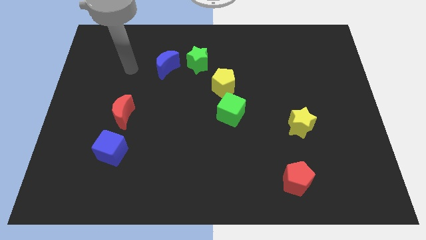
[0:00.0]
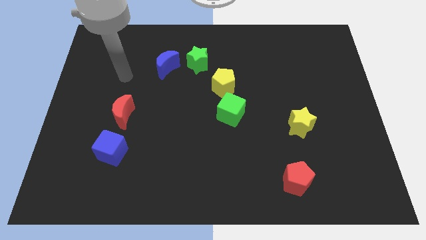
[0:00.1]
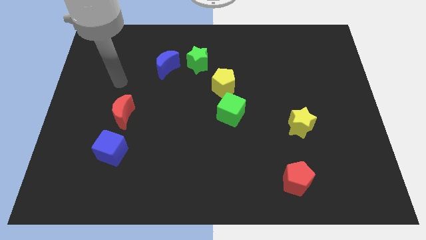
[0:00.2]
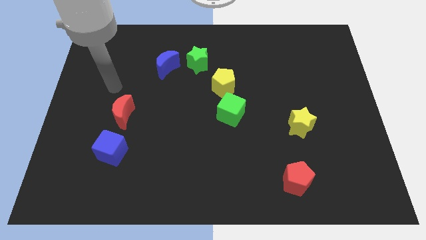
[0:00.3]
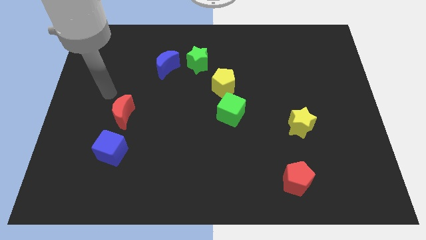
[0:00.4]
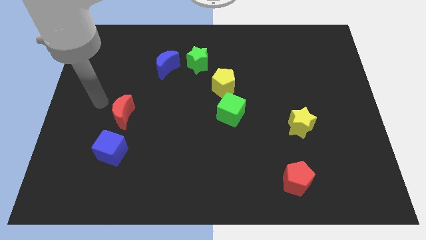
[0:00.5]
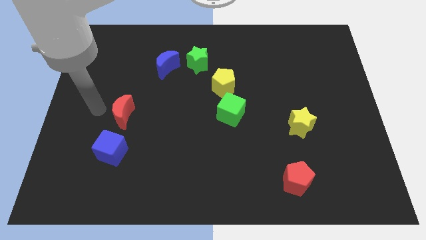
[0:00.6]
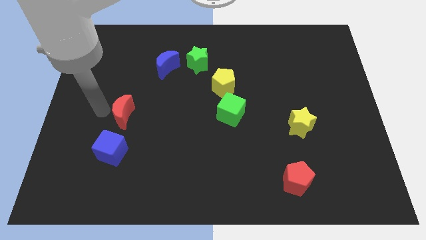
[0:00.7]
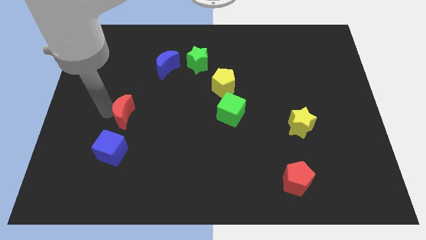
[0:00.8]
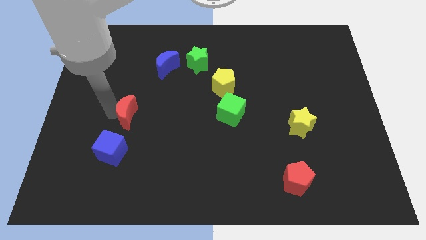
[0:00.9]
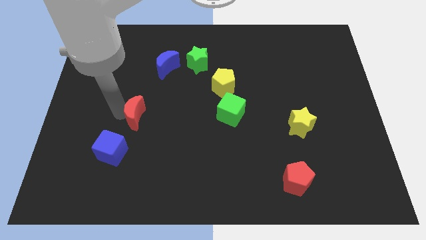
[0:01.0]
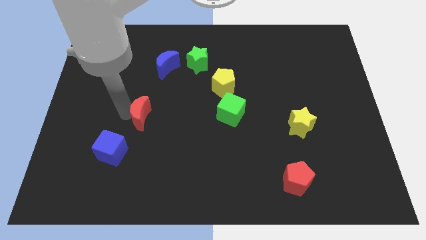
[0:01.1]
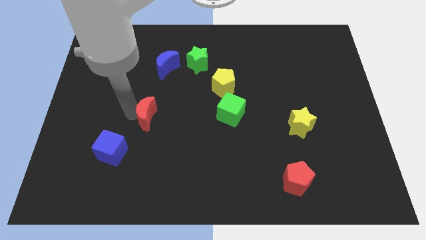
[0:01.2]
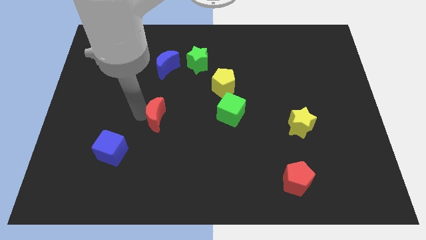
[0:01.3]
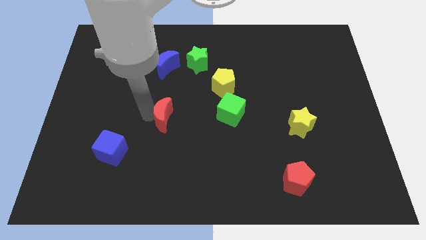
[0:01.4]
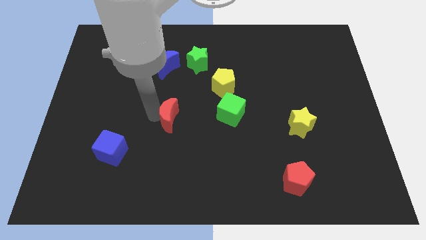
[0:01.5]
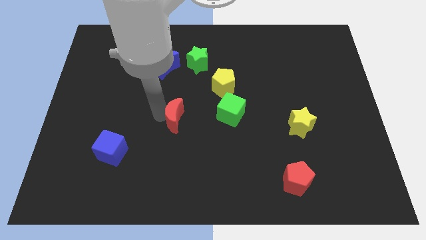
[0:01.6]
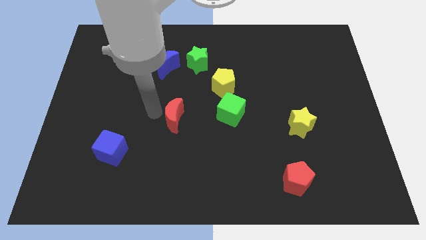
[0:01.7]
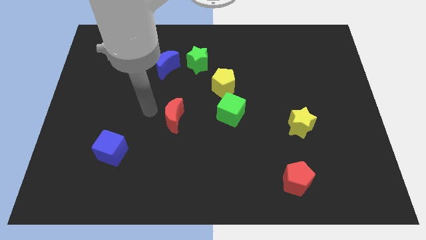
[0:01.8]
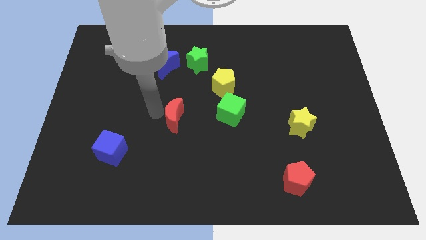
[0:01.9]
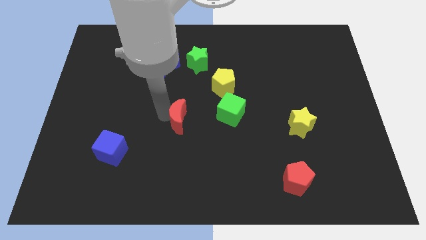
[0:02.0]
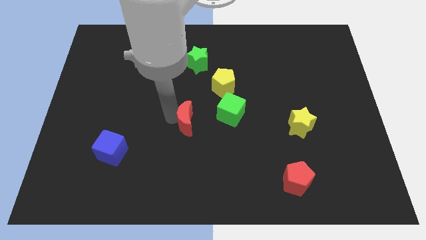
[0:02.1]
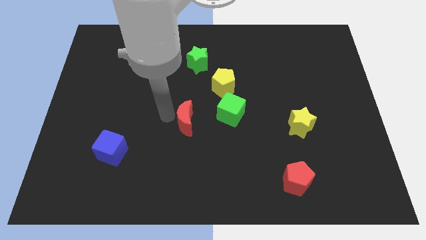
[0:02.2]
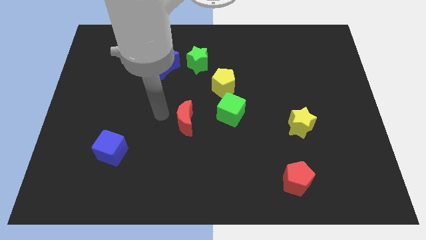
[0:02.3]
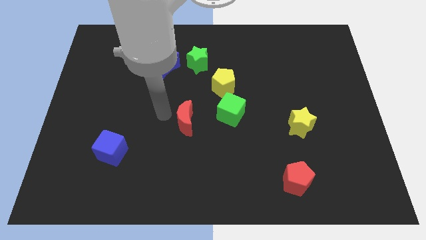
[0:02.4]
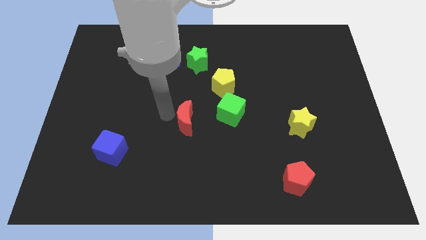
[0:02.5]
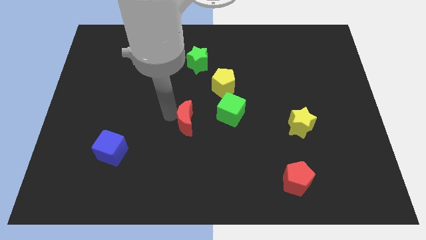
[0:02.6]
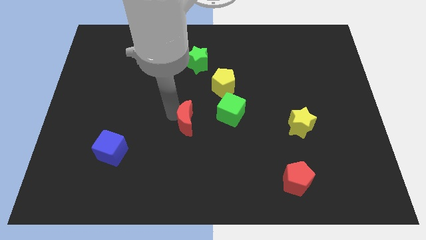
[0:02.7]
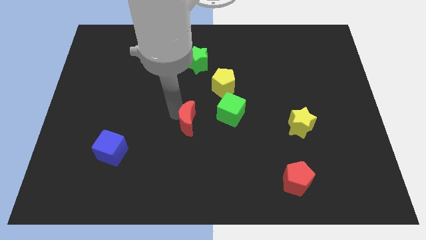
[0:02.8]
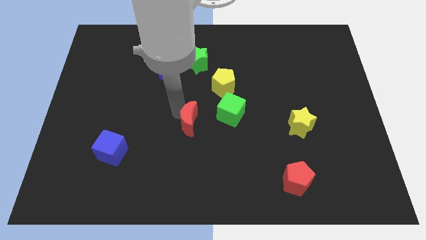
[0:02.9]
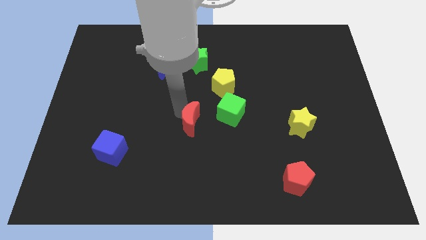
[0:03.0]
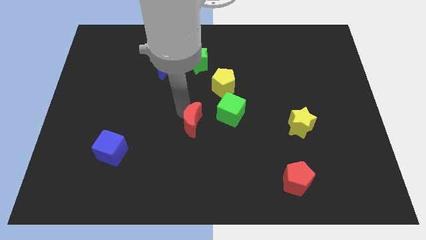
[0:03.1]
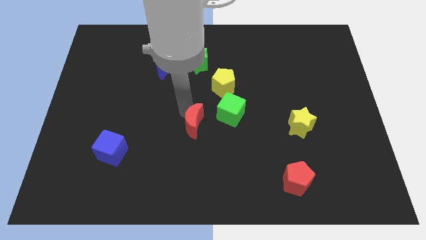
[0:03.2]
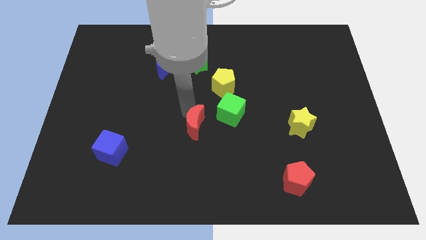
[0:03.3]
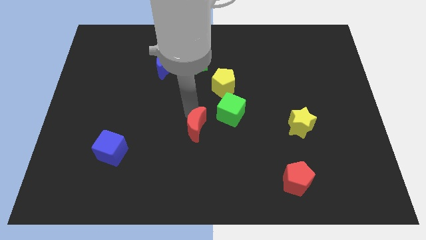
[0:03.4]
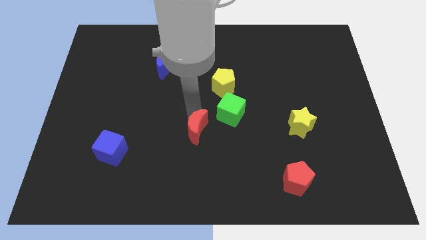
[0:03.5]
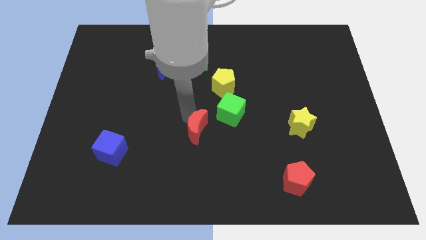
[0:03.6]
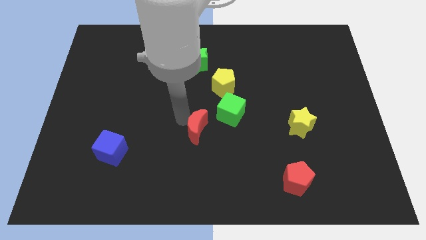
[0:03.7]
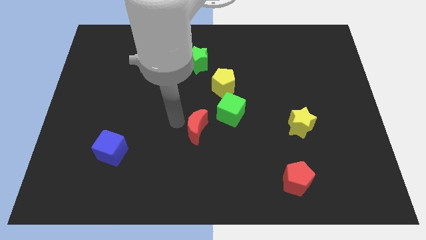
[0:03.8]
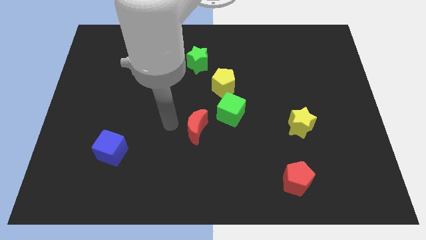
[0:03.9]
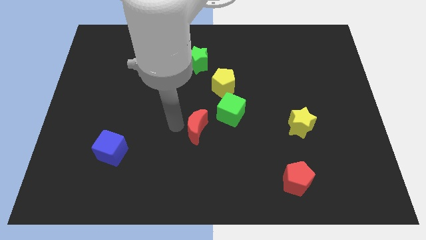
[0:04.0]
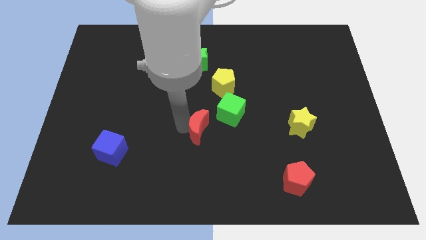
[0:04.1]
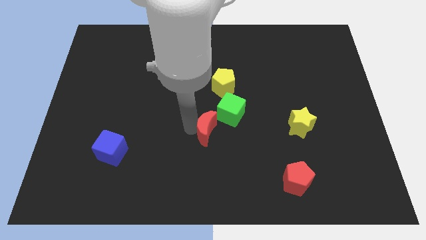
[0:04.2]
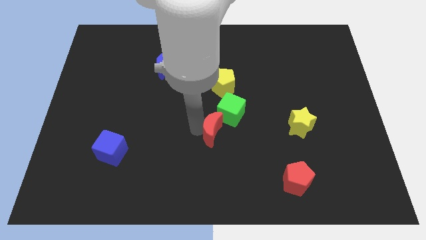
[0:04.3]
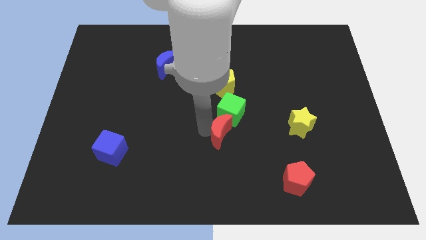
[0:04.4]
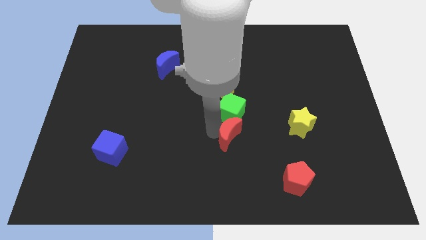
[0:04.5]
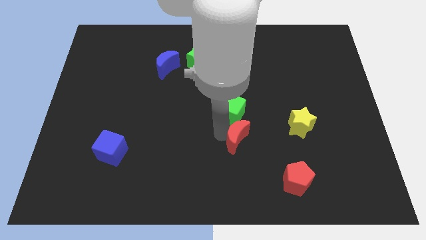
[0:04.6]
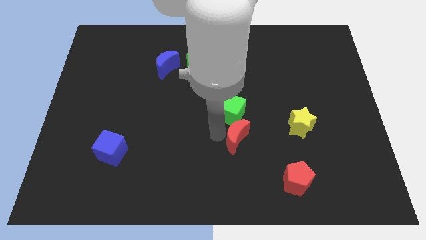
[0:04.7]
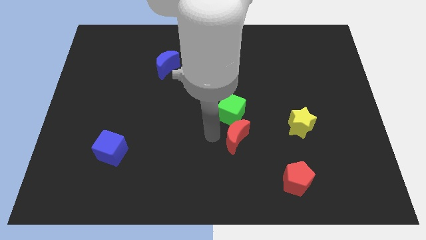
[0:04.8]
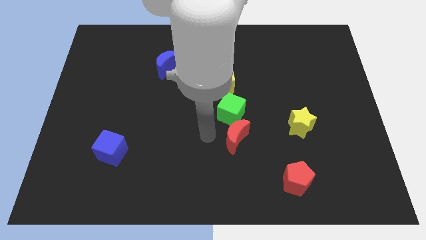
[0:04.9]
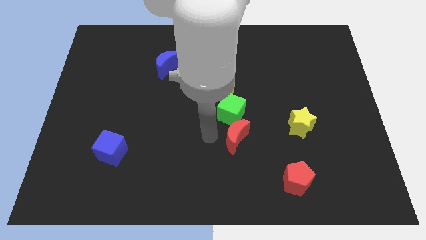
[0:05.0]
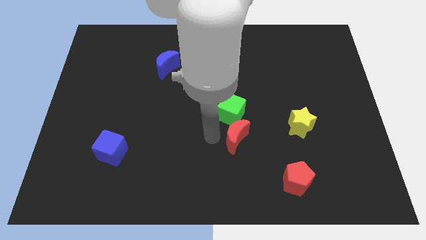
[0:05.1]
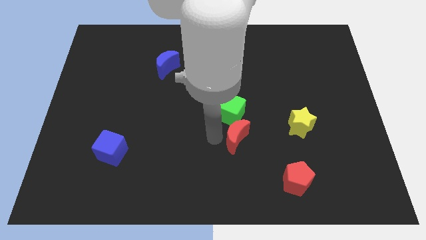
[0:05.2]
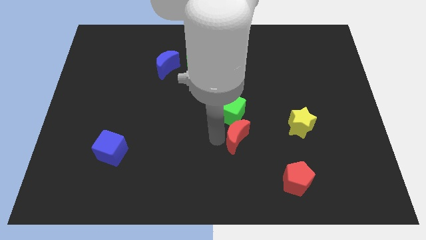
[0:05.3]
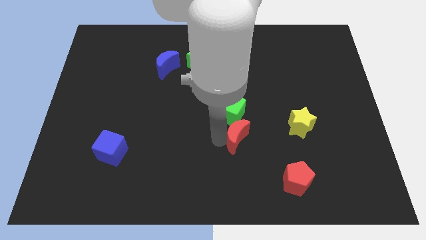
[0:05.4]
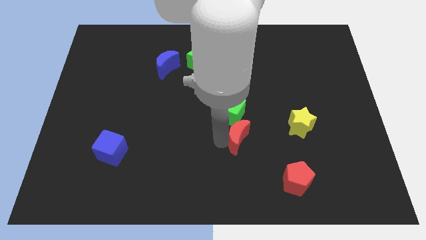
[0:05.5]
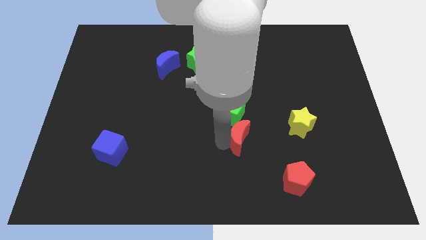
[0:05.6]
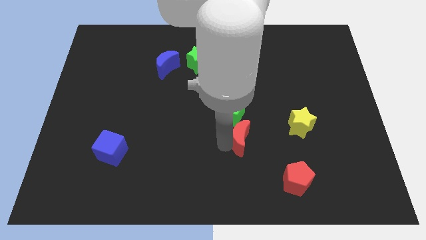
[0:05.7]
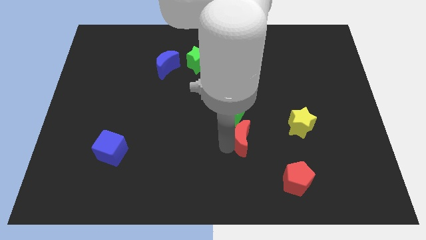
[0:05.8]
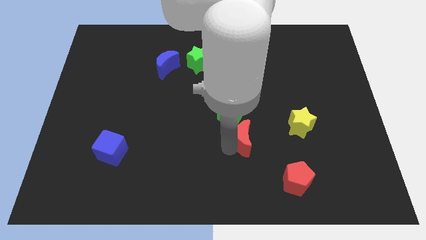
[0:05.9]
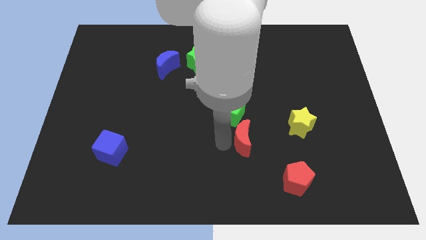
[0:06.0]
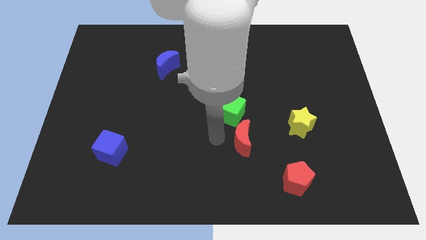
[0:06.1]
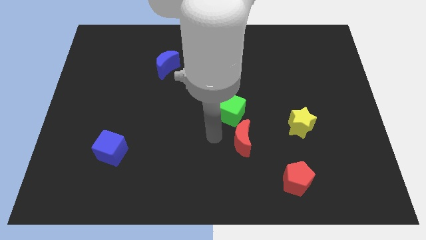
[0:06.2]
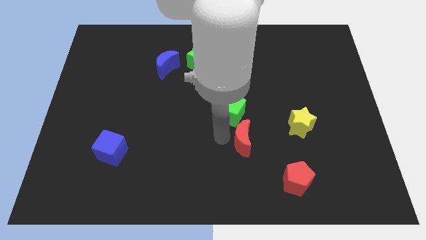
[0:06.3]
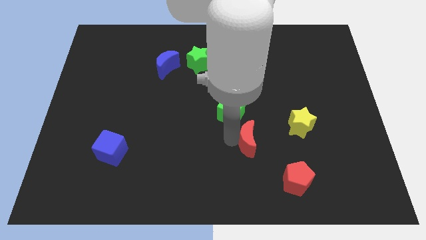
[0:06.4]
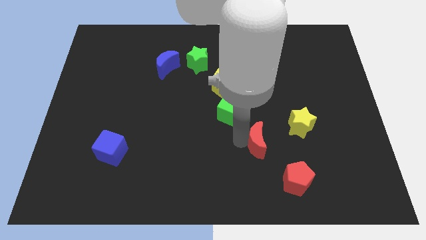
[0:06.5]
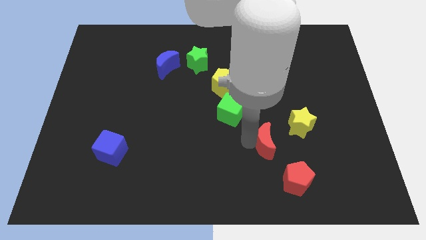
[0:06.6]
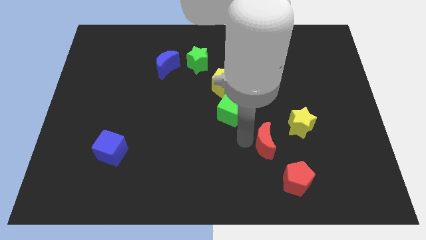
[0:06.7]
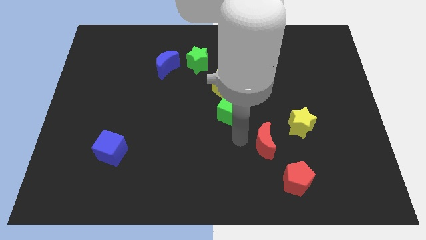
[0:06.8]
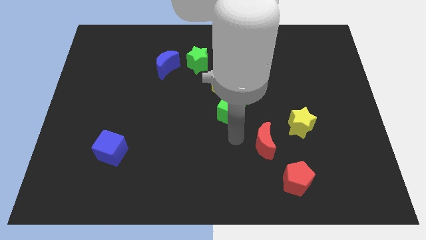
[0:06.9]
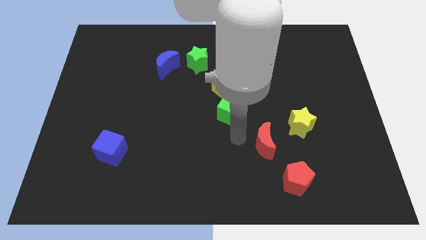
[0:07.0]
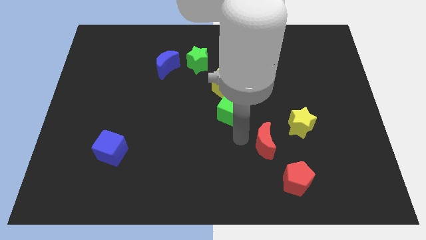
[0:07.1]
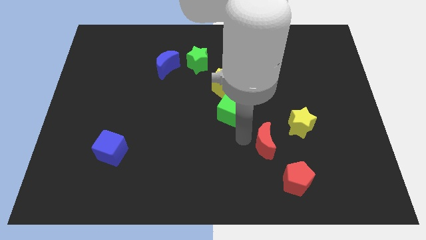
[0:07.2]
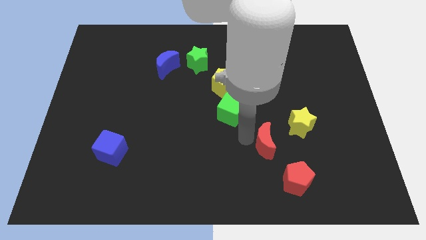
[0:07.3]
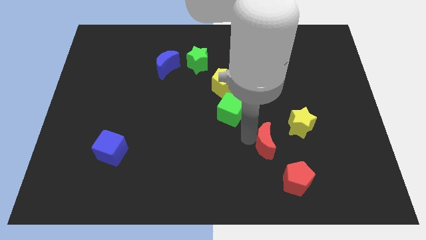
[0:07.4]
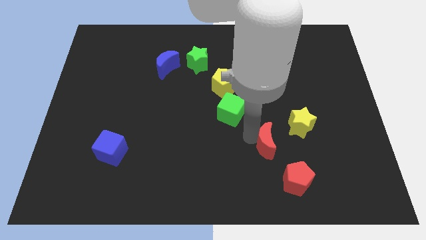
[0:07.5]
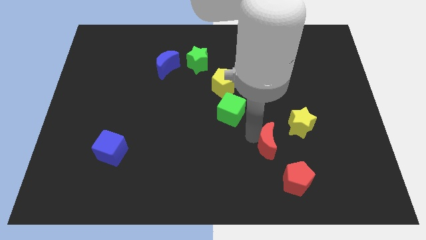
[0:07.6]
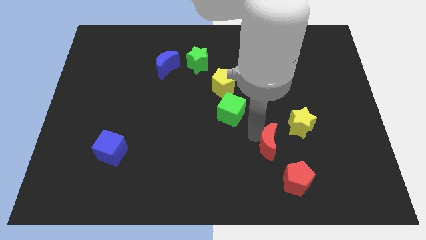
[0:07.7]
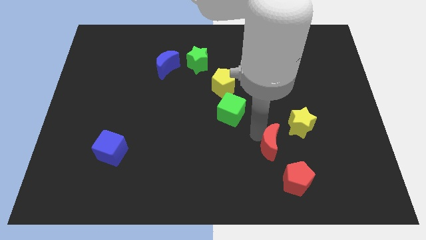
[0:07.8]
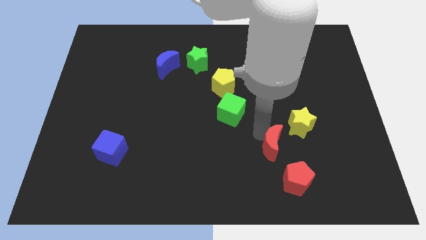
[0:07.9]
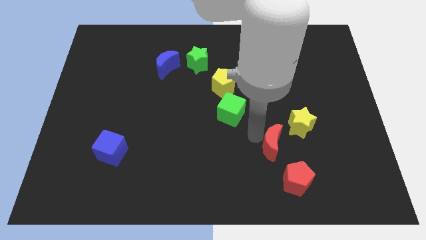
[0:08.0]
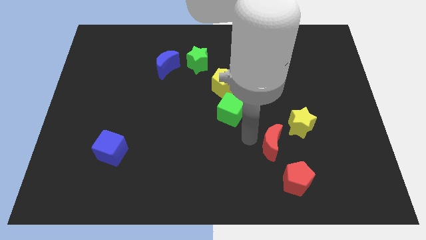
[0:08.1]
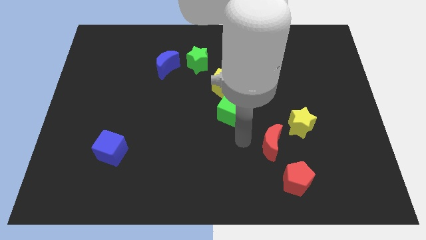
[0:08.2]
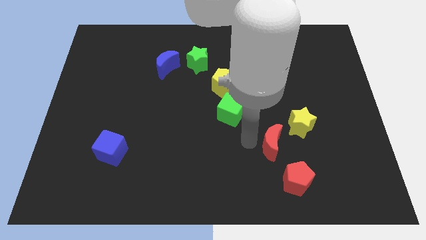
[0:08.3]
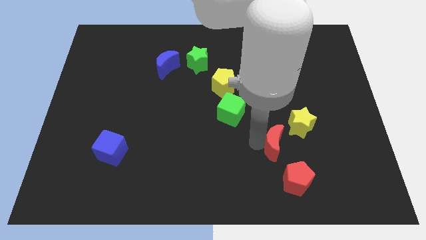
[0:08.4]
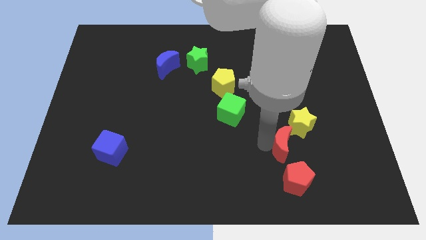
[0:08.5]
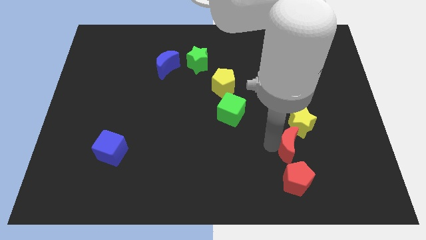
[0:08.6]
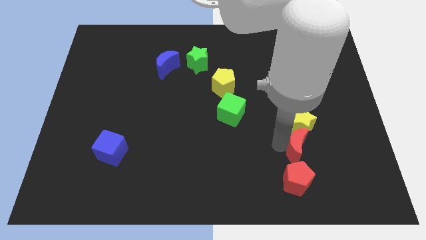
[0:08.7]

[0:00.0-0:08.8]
move the red moon to the top right side of the red pentagon
